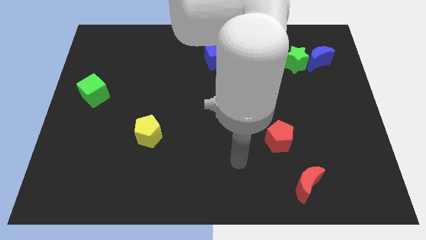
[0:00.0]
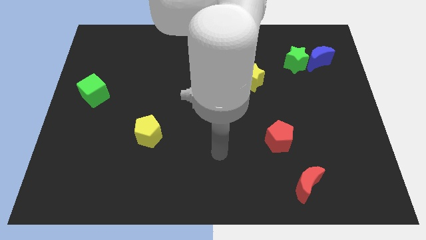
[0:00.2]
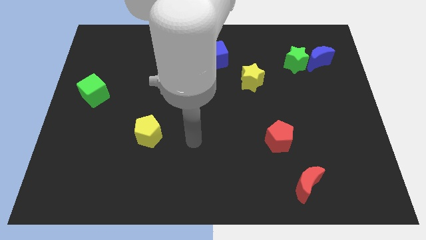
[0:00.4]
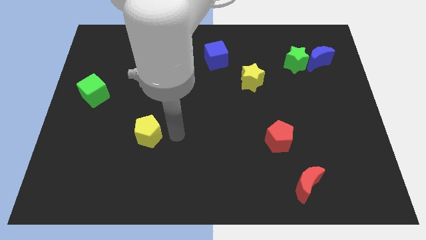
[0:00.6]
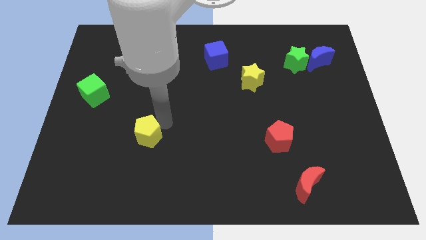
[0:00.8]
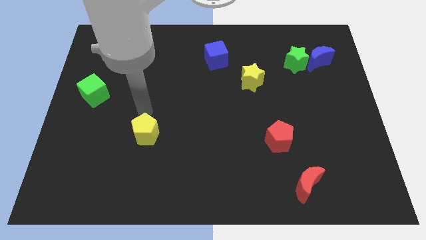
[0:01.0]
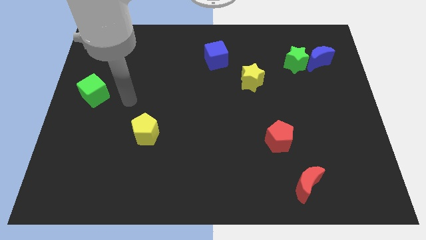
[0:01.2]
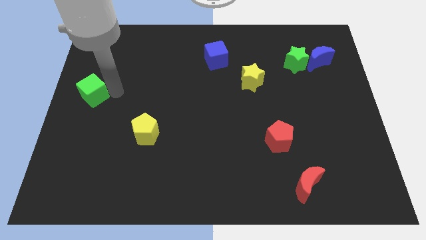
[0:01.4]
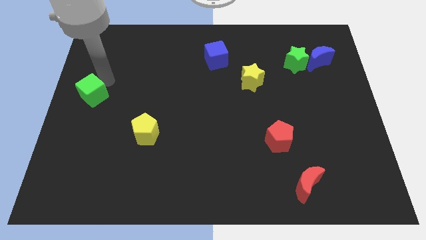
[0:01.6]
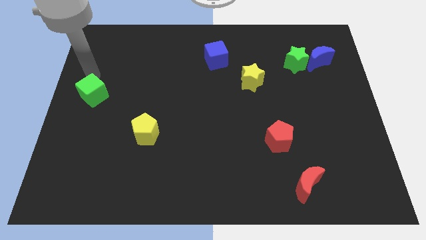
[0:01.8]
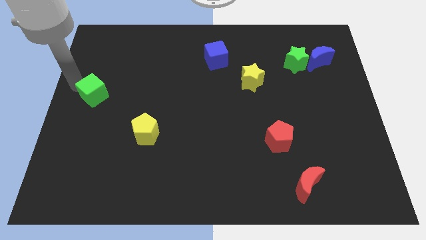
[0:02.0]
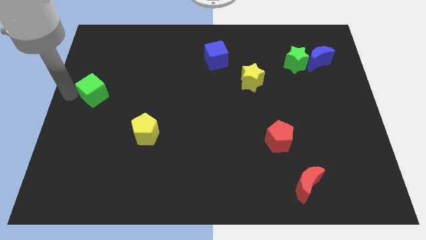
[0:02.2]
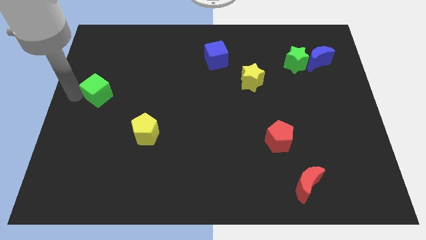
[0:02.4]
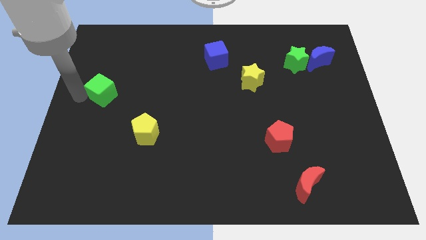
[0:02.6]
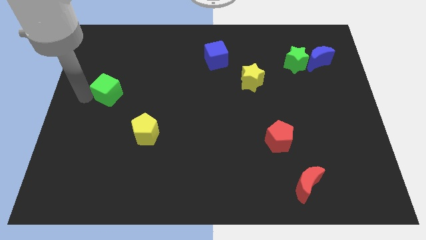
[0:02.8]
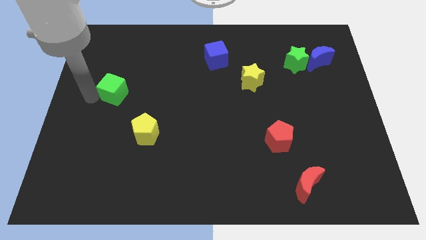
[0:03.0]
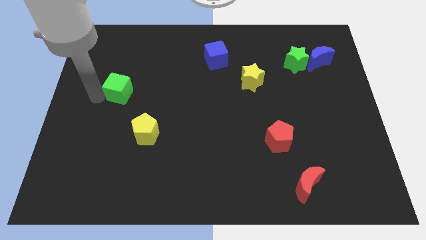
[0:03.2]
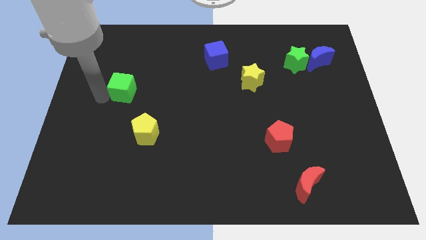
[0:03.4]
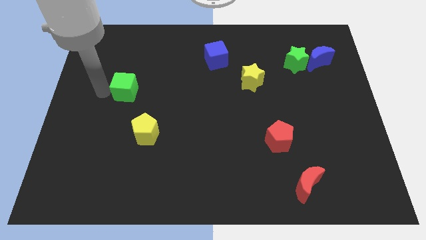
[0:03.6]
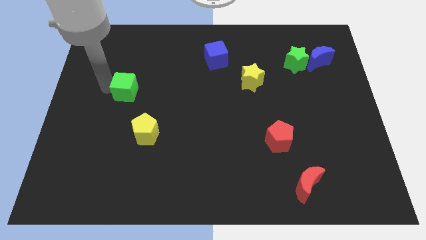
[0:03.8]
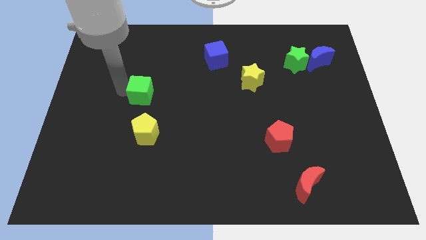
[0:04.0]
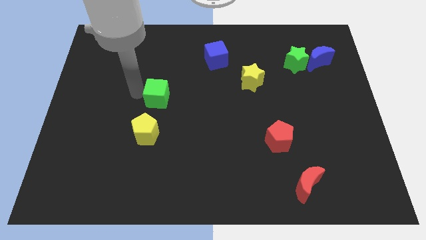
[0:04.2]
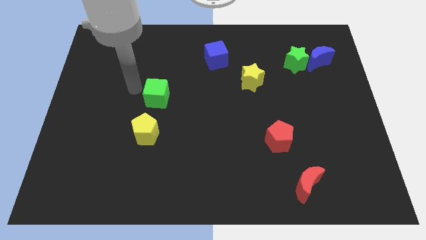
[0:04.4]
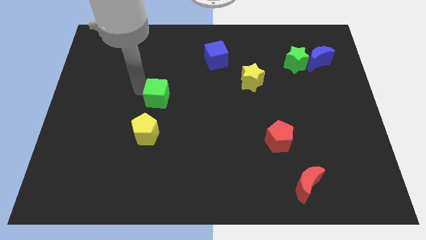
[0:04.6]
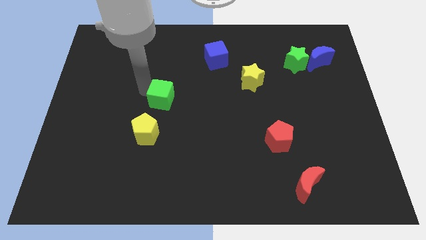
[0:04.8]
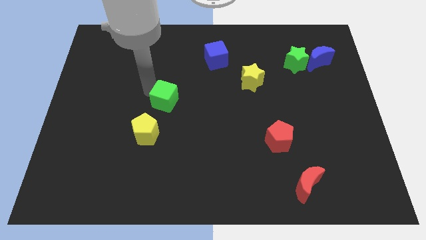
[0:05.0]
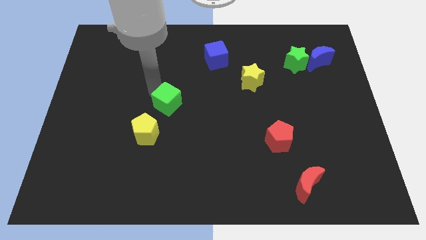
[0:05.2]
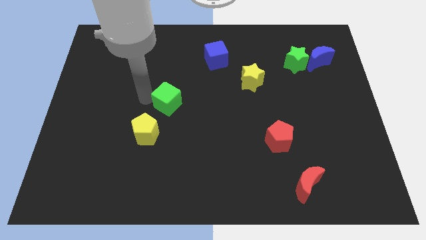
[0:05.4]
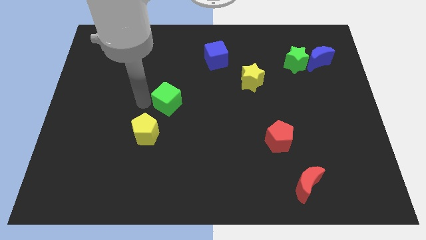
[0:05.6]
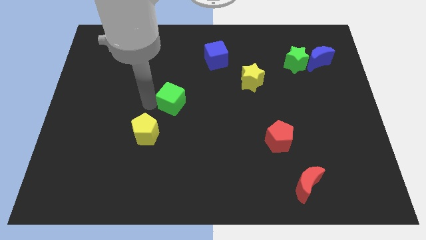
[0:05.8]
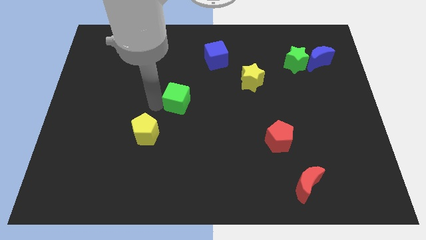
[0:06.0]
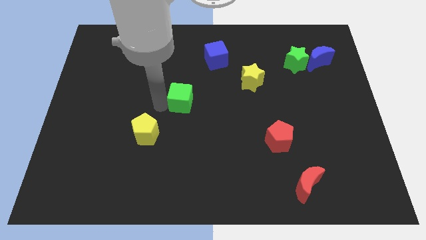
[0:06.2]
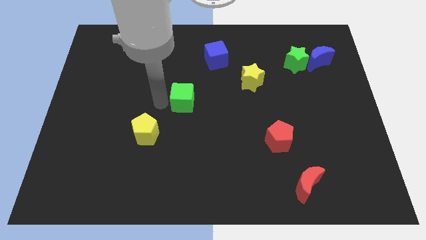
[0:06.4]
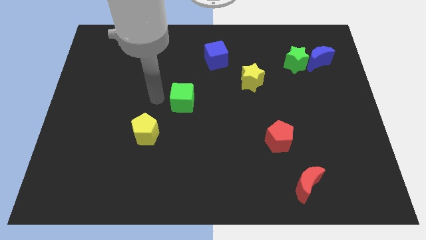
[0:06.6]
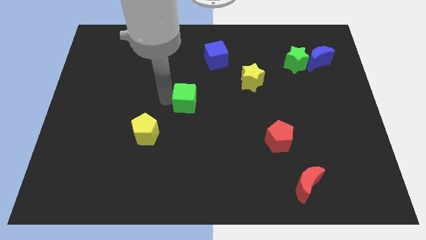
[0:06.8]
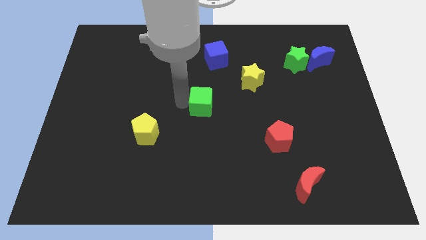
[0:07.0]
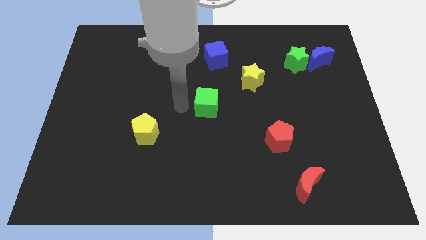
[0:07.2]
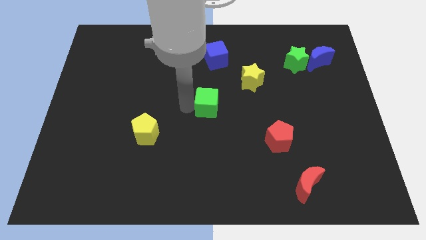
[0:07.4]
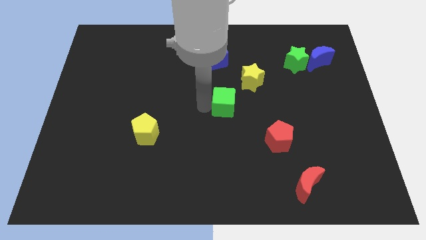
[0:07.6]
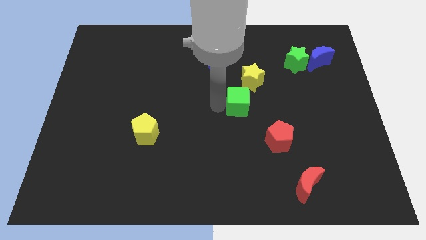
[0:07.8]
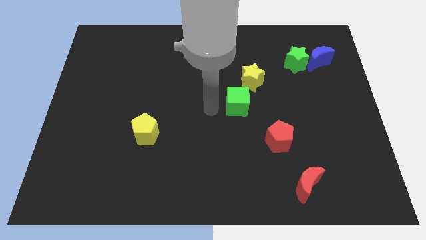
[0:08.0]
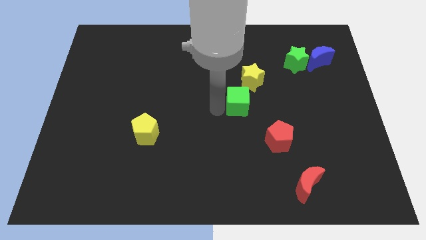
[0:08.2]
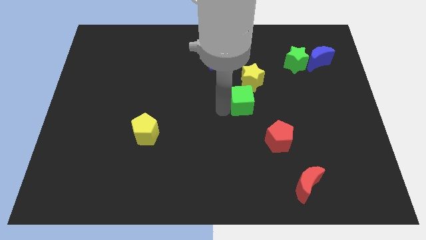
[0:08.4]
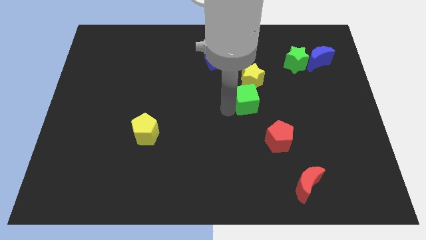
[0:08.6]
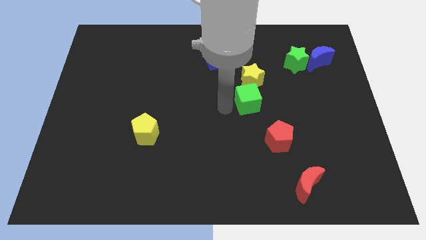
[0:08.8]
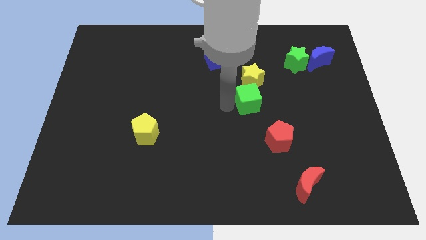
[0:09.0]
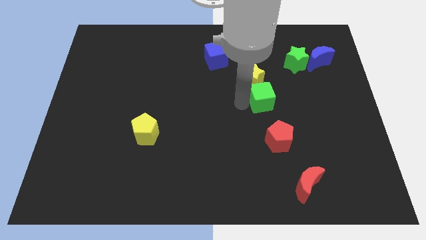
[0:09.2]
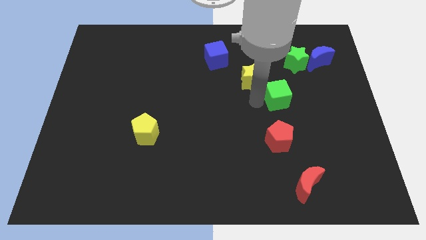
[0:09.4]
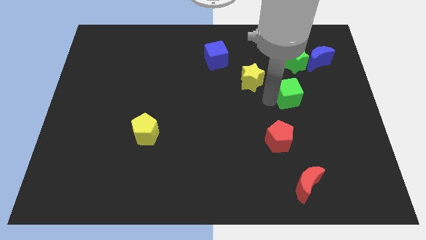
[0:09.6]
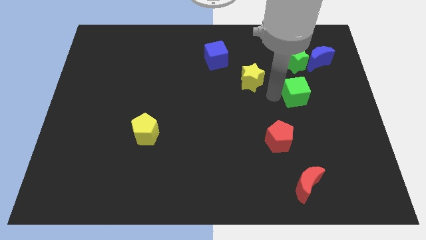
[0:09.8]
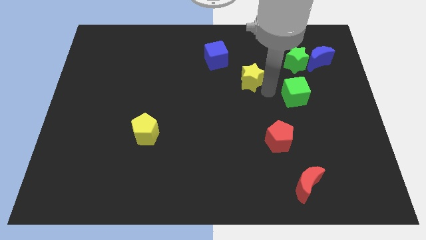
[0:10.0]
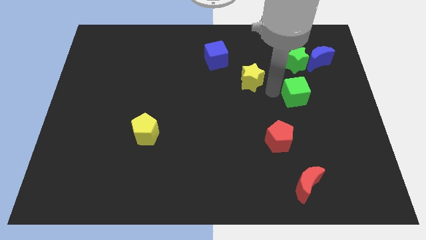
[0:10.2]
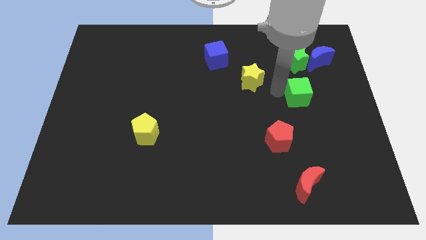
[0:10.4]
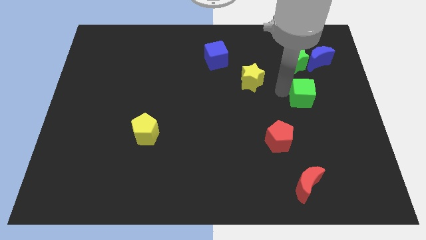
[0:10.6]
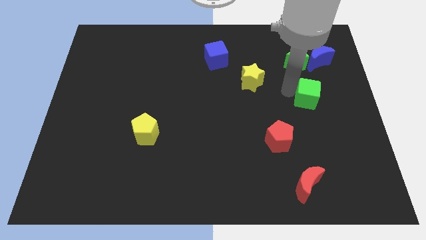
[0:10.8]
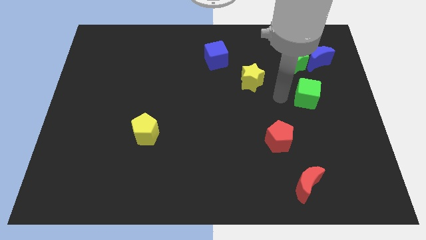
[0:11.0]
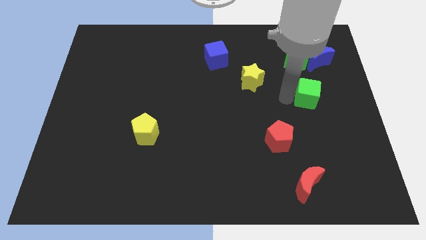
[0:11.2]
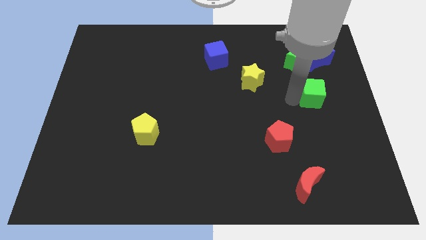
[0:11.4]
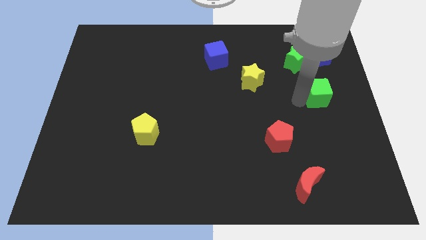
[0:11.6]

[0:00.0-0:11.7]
put the green cube to the right side

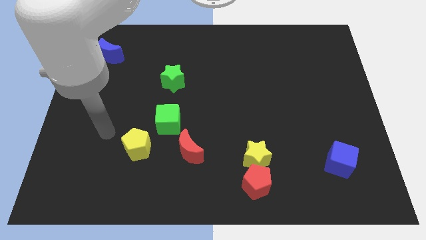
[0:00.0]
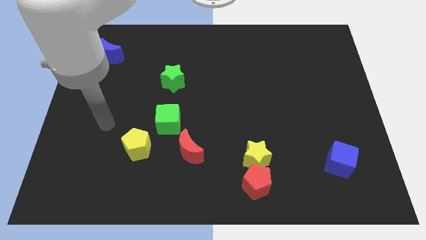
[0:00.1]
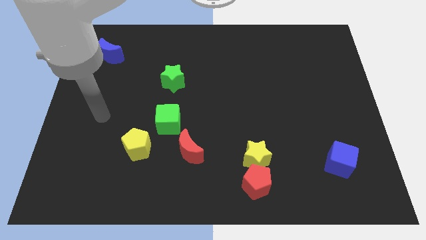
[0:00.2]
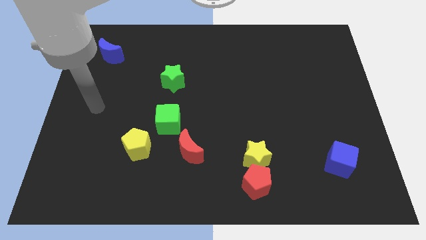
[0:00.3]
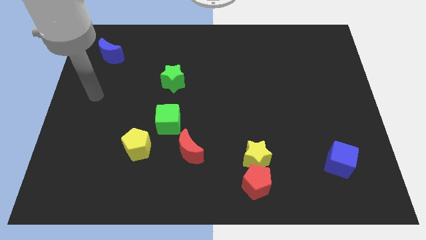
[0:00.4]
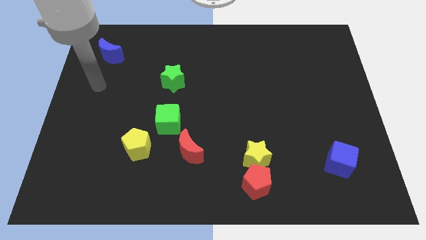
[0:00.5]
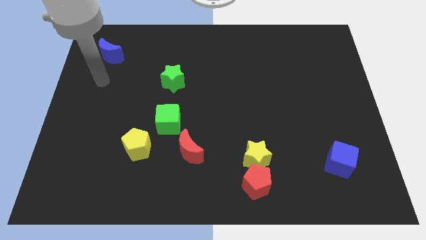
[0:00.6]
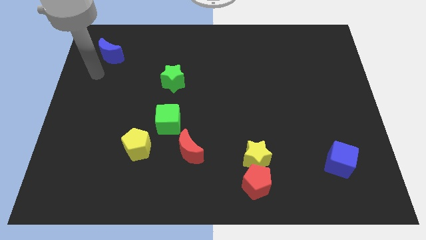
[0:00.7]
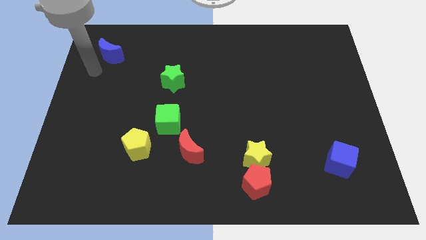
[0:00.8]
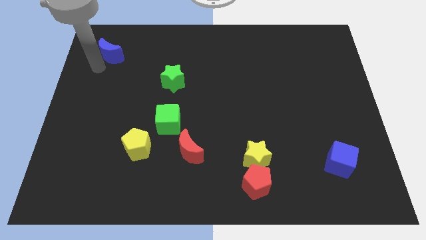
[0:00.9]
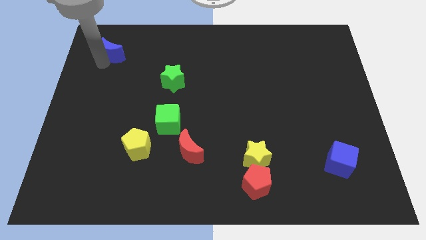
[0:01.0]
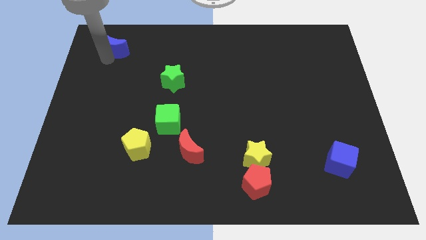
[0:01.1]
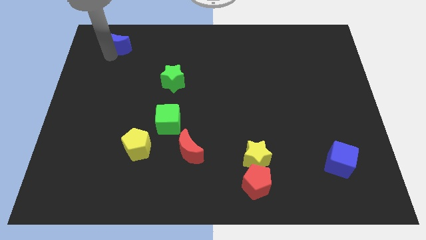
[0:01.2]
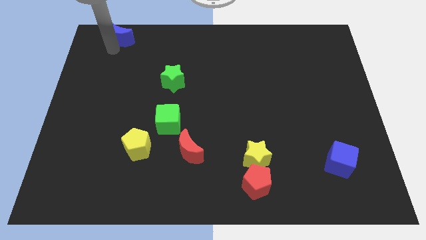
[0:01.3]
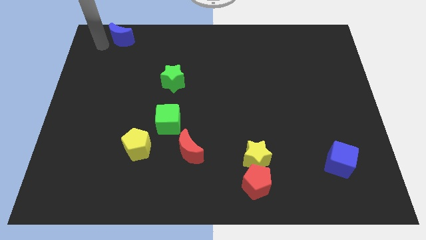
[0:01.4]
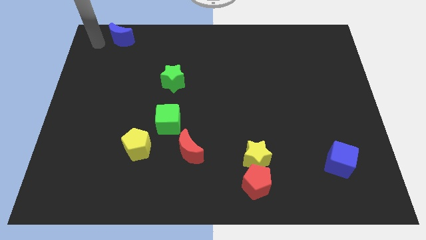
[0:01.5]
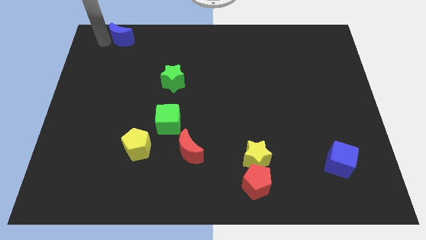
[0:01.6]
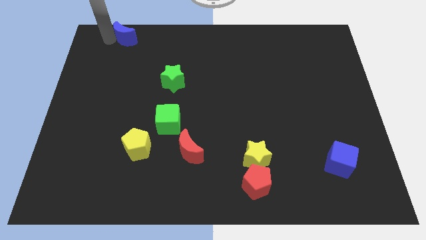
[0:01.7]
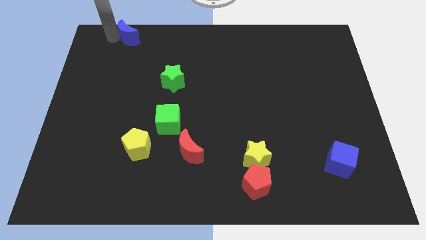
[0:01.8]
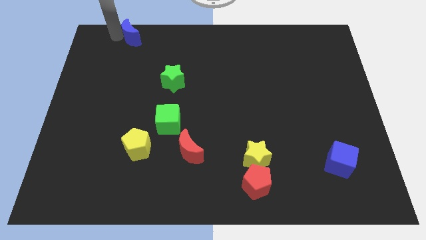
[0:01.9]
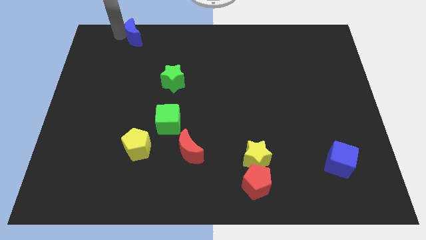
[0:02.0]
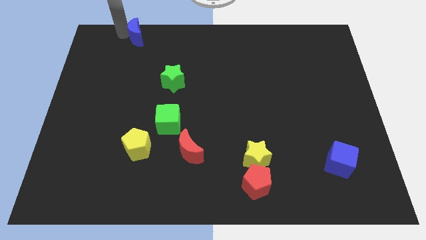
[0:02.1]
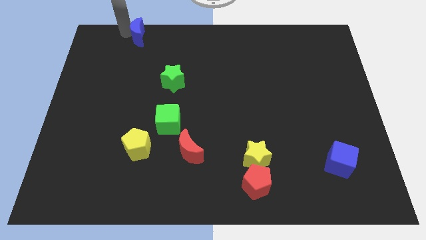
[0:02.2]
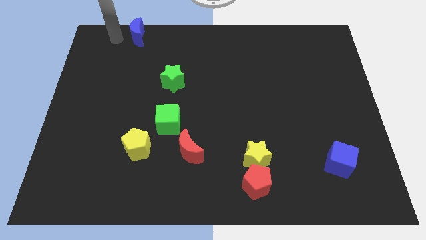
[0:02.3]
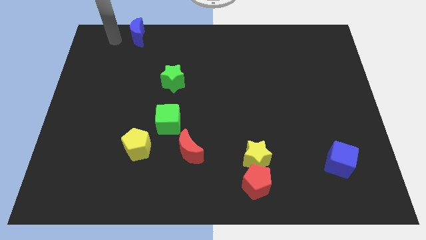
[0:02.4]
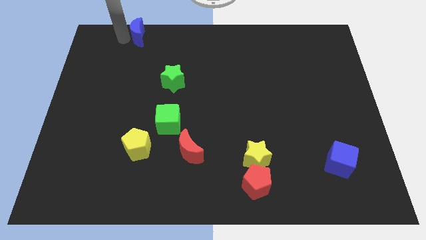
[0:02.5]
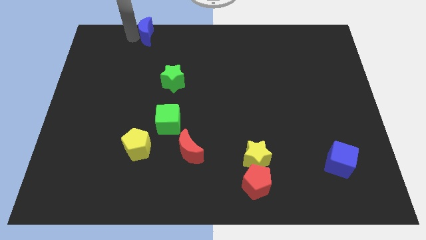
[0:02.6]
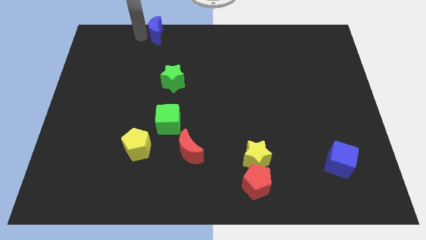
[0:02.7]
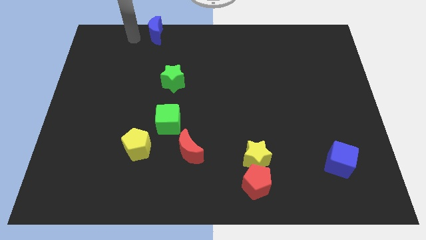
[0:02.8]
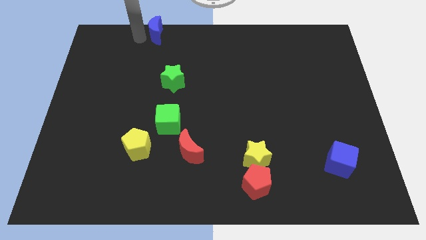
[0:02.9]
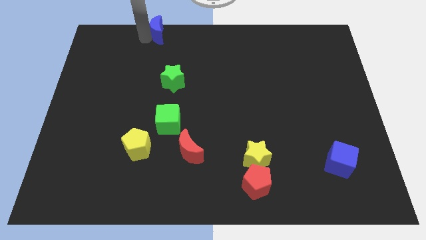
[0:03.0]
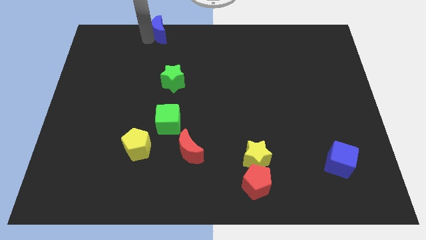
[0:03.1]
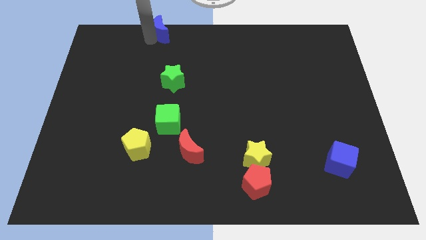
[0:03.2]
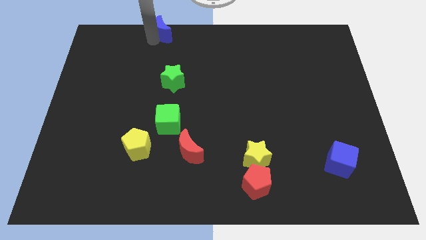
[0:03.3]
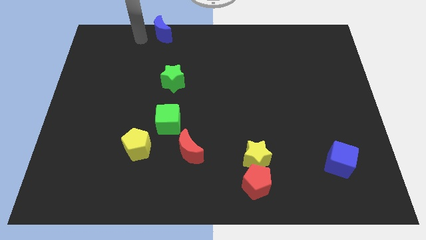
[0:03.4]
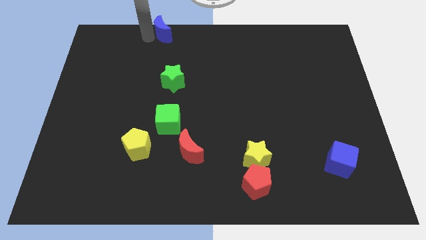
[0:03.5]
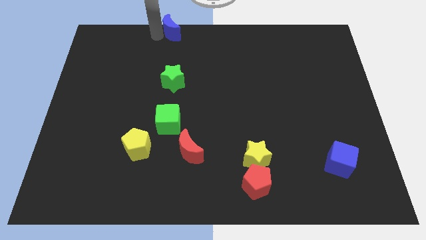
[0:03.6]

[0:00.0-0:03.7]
put the blue moon to the top side
